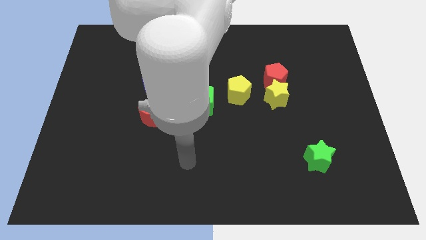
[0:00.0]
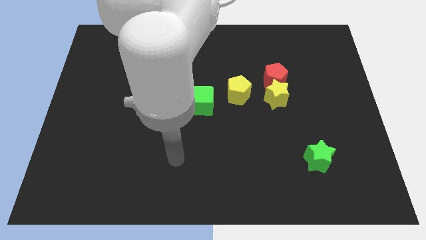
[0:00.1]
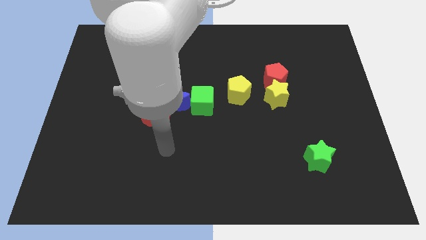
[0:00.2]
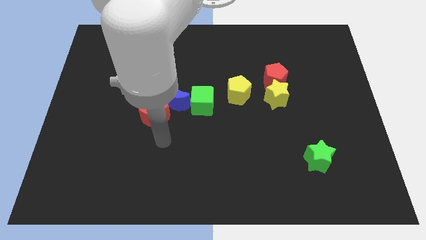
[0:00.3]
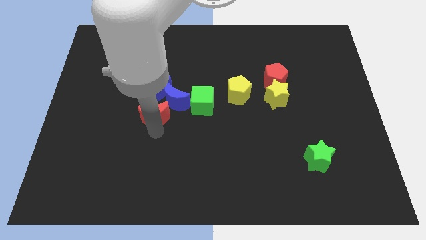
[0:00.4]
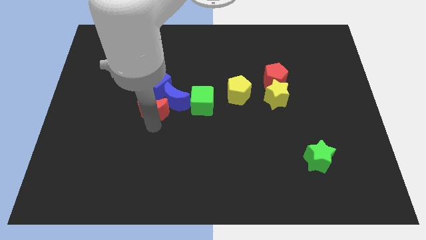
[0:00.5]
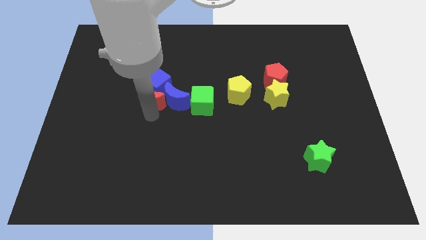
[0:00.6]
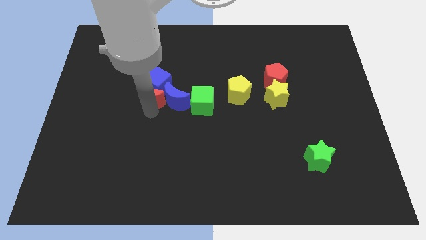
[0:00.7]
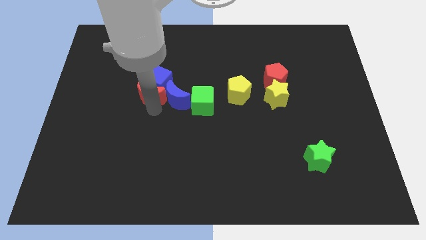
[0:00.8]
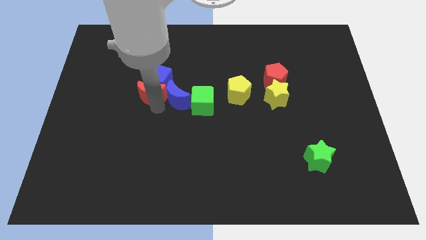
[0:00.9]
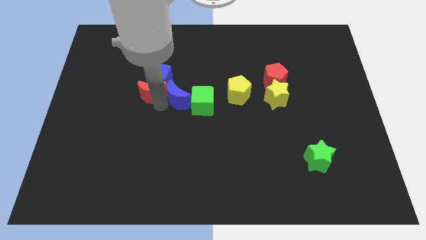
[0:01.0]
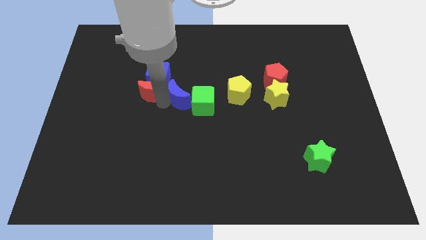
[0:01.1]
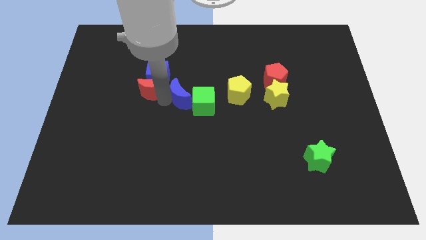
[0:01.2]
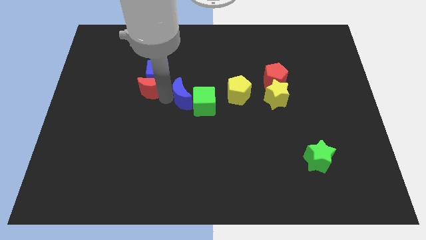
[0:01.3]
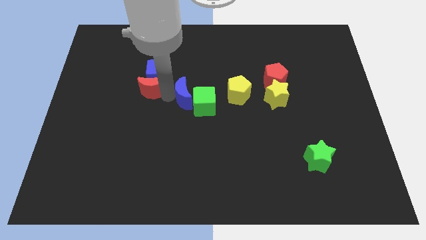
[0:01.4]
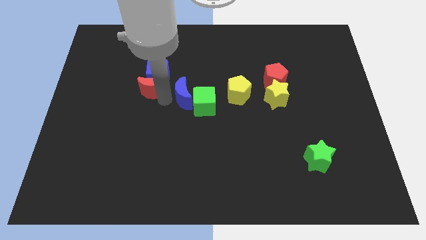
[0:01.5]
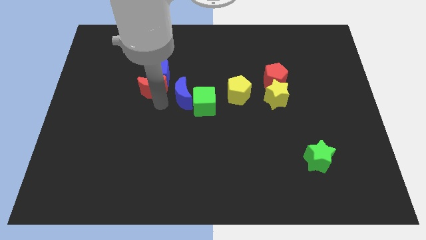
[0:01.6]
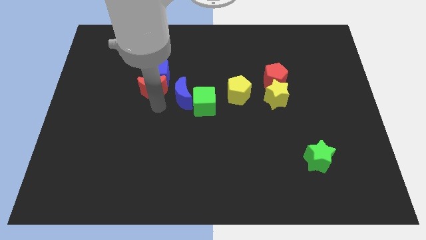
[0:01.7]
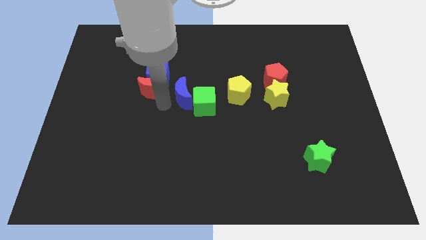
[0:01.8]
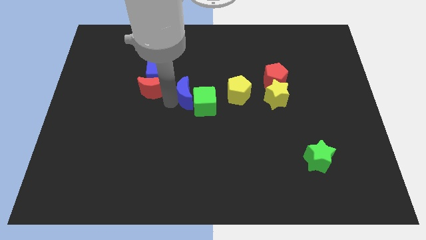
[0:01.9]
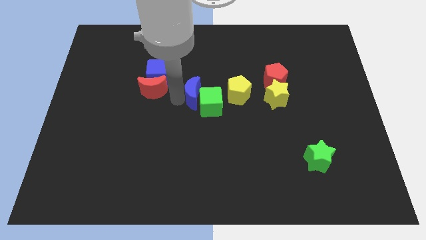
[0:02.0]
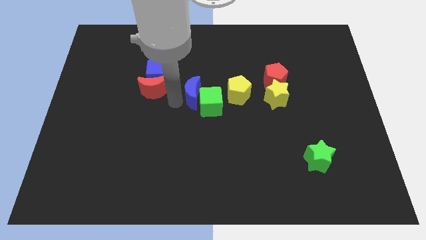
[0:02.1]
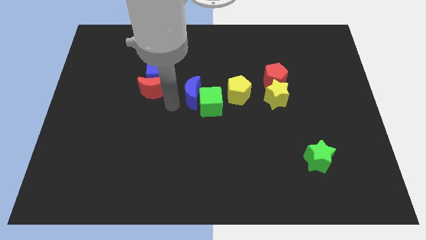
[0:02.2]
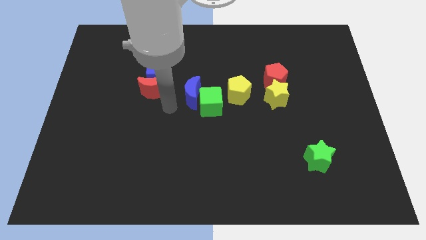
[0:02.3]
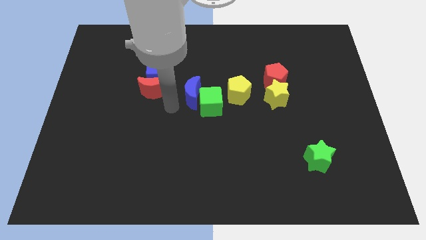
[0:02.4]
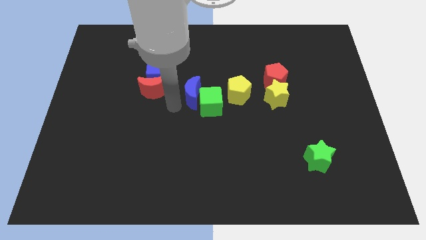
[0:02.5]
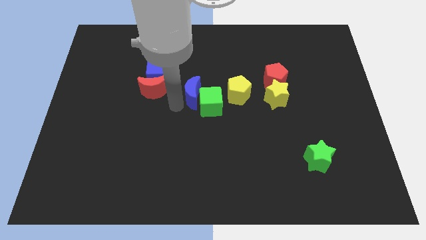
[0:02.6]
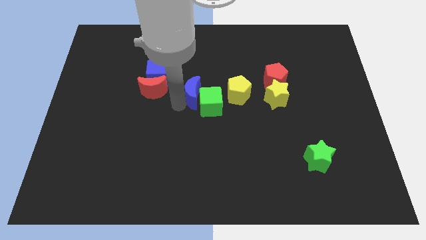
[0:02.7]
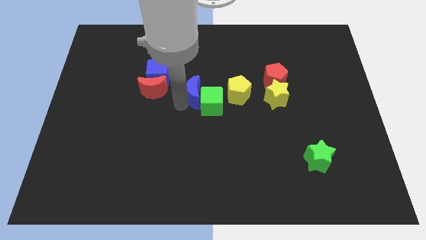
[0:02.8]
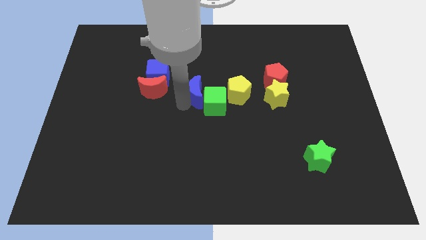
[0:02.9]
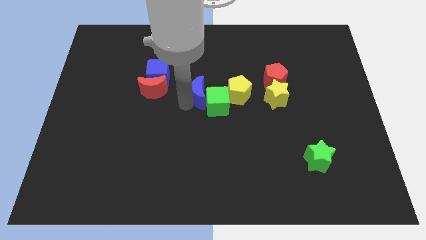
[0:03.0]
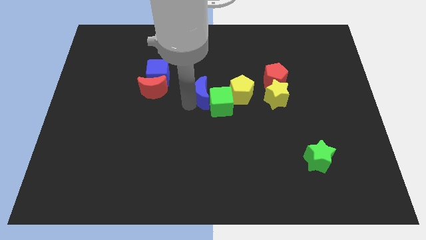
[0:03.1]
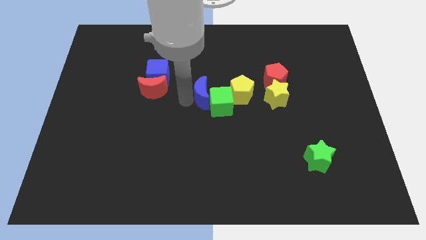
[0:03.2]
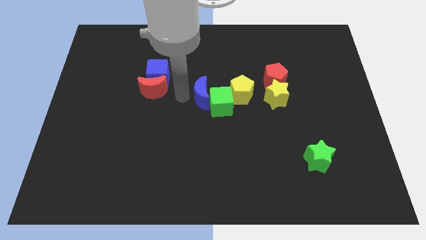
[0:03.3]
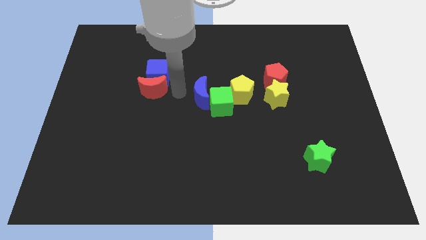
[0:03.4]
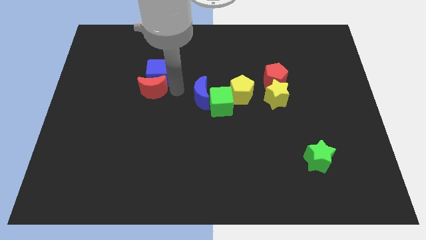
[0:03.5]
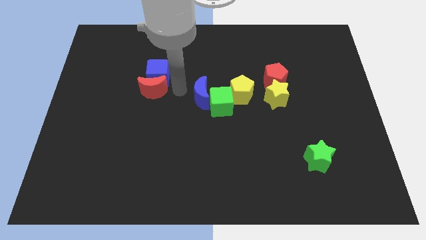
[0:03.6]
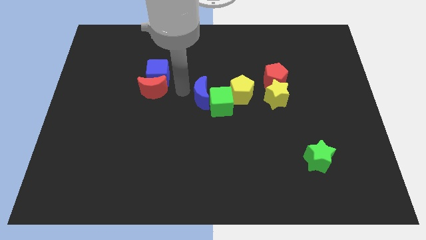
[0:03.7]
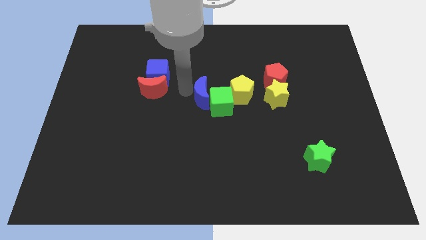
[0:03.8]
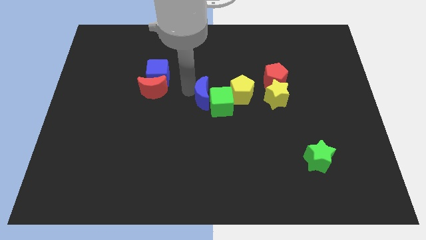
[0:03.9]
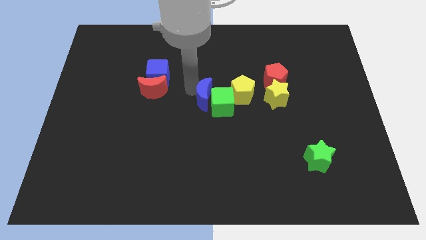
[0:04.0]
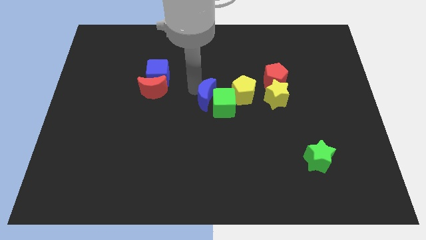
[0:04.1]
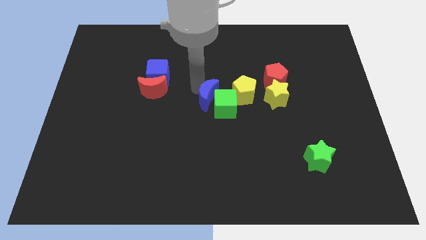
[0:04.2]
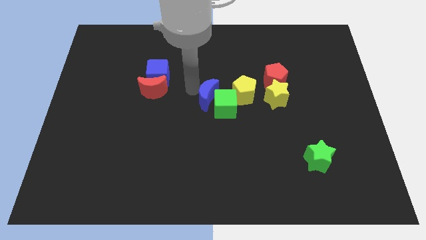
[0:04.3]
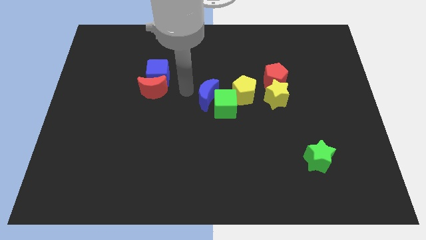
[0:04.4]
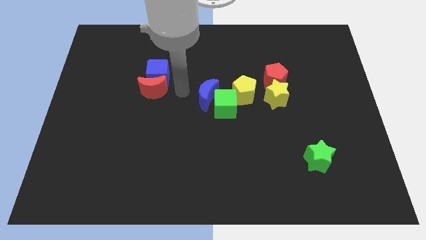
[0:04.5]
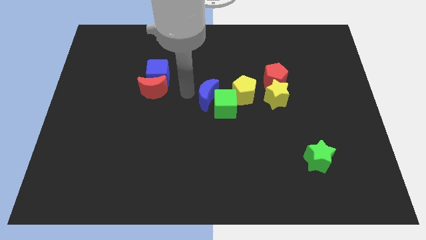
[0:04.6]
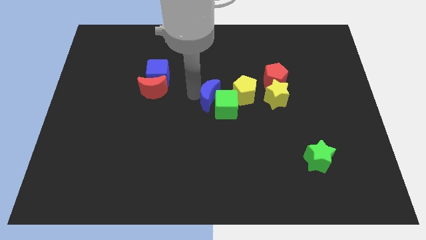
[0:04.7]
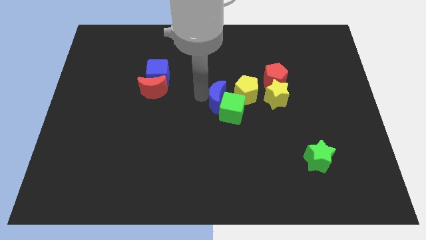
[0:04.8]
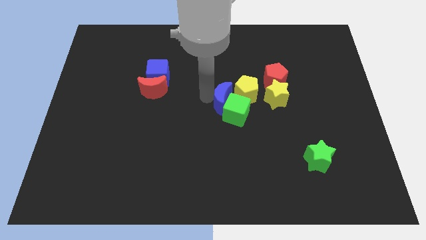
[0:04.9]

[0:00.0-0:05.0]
pull the blue moon apart from the blue cube, green cube, and red moon

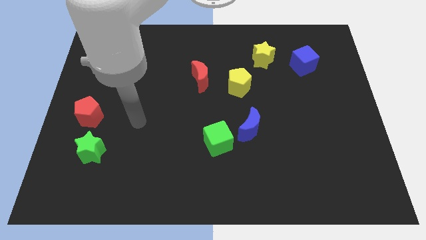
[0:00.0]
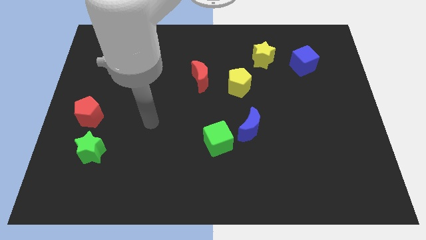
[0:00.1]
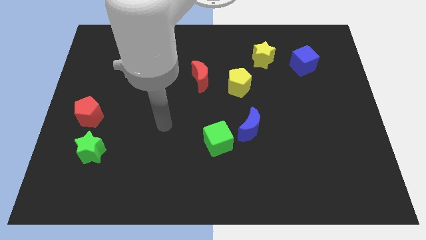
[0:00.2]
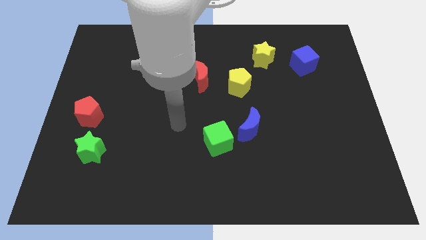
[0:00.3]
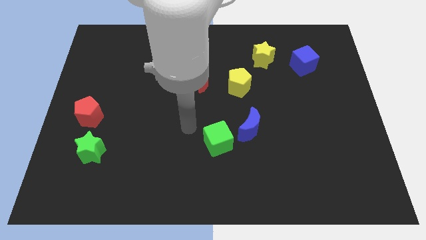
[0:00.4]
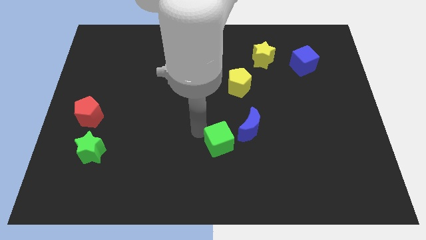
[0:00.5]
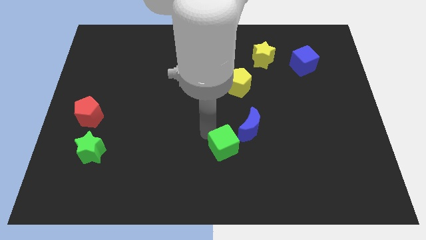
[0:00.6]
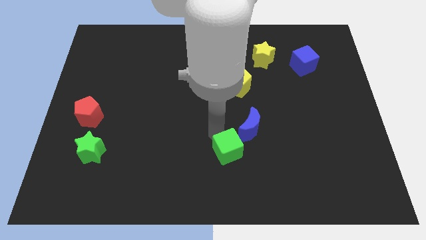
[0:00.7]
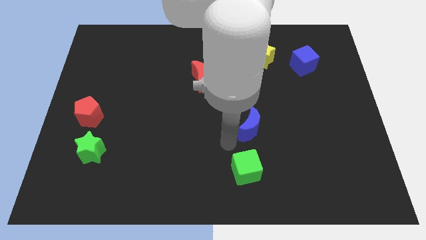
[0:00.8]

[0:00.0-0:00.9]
separate the blue moon from the green cube

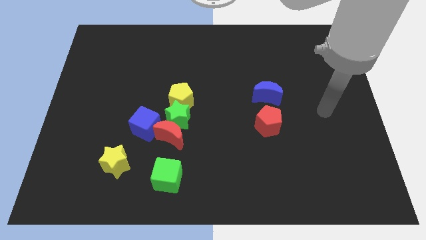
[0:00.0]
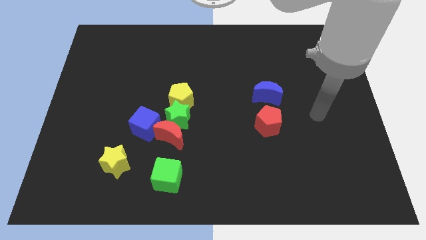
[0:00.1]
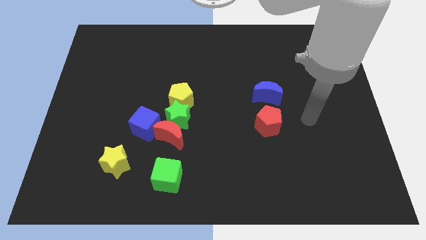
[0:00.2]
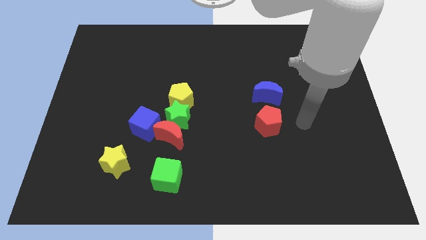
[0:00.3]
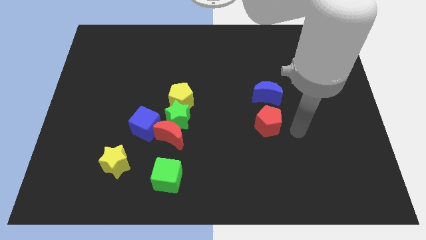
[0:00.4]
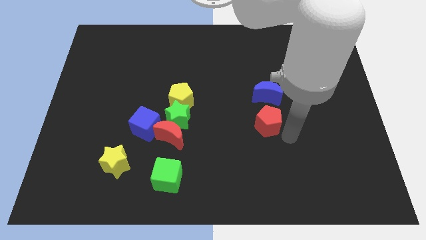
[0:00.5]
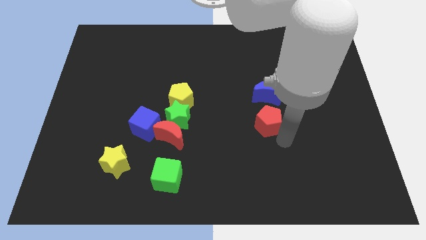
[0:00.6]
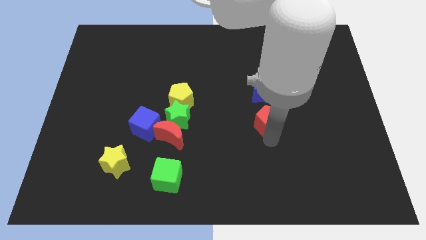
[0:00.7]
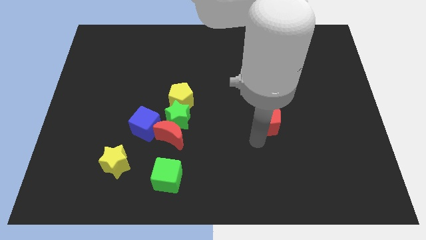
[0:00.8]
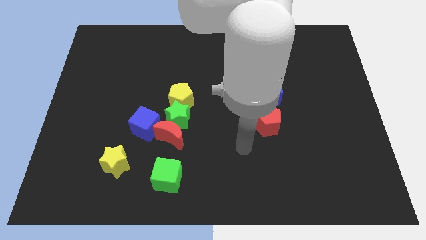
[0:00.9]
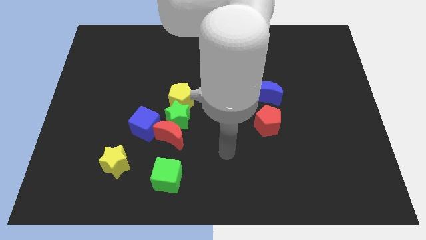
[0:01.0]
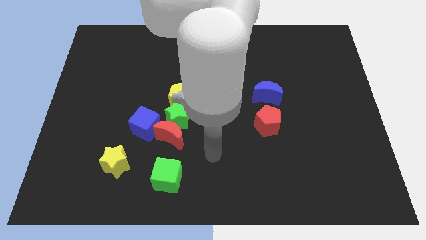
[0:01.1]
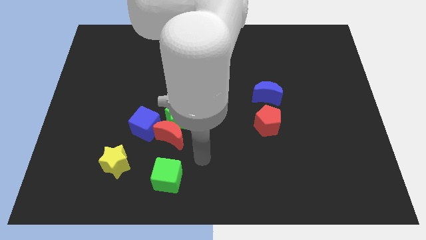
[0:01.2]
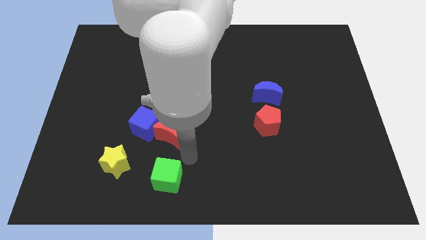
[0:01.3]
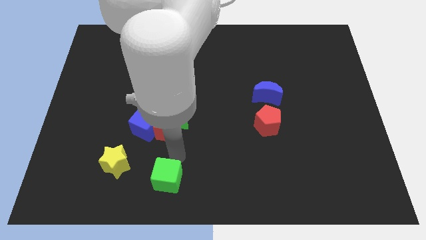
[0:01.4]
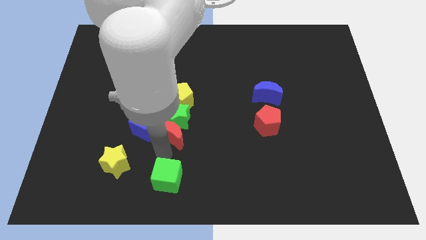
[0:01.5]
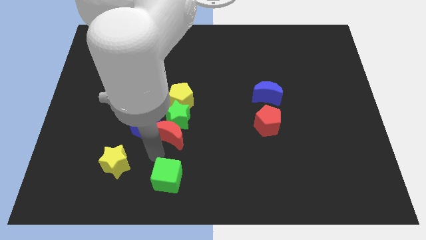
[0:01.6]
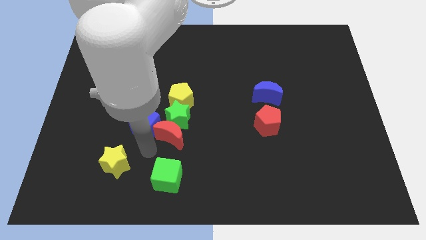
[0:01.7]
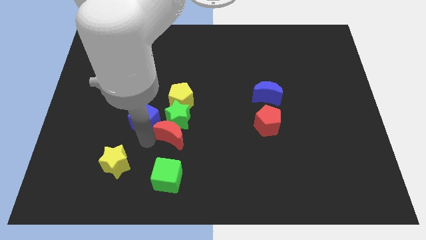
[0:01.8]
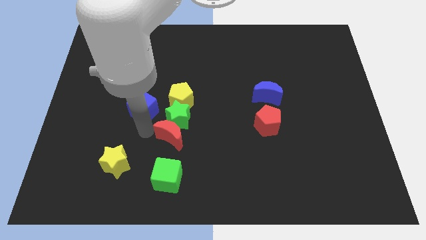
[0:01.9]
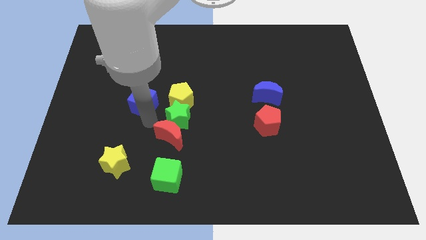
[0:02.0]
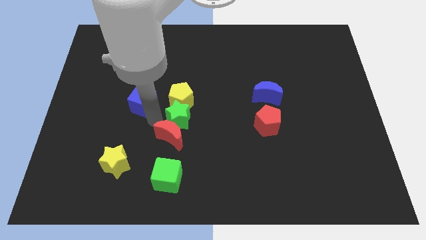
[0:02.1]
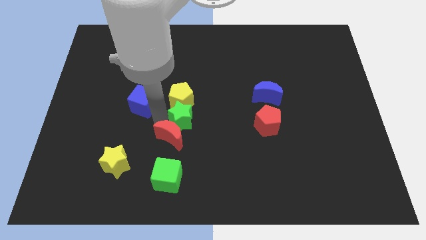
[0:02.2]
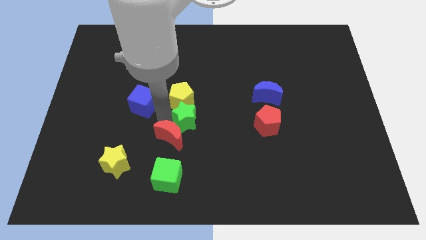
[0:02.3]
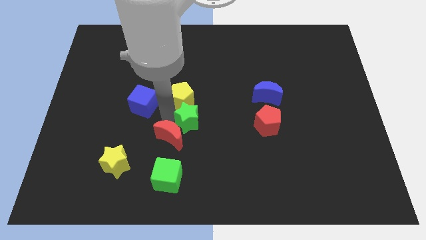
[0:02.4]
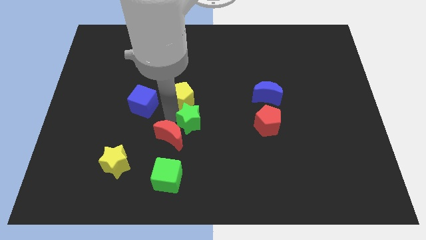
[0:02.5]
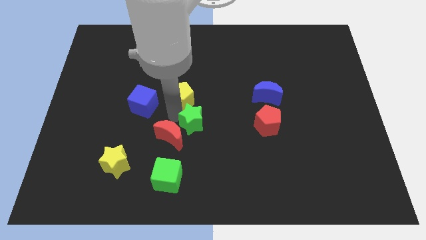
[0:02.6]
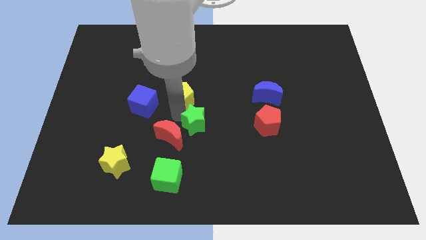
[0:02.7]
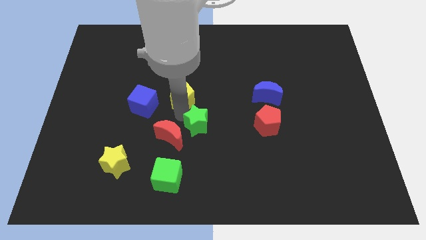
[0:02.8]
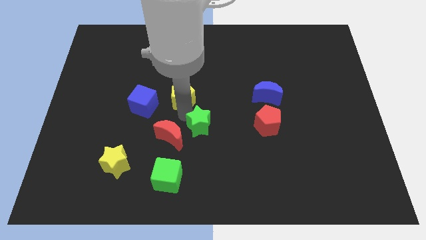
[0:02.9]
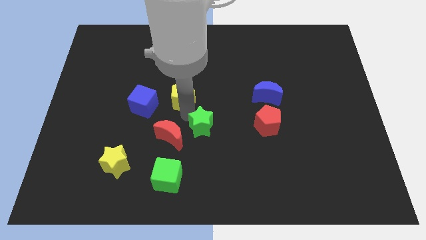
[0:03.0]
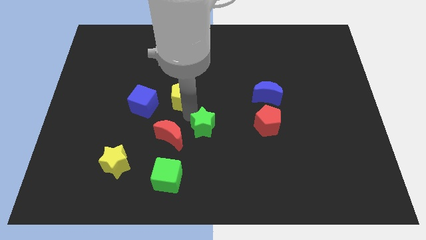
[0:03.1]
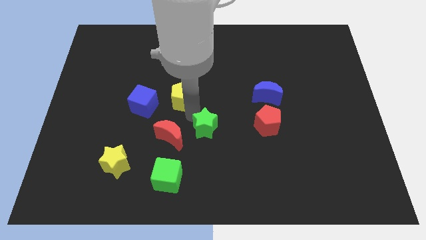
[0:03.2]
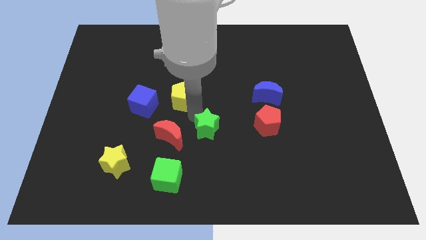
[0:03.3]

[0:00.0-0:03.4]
pull the green star apart from the group of blocks
